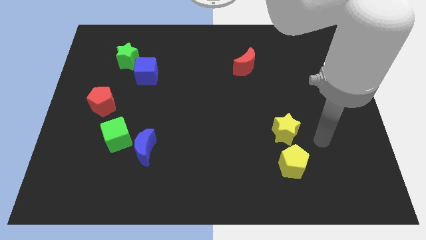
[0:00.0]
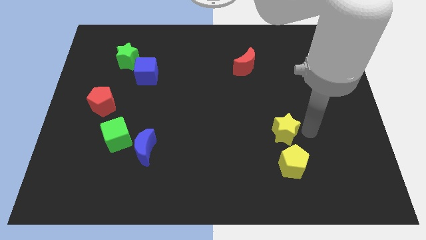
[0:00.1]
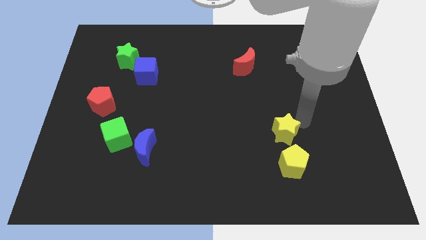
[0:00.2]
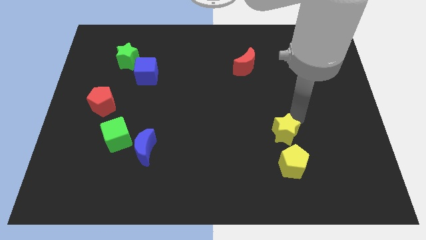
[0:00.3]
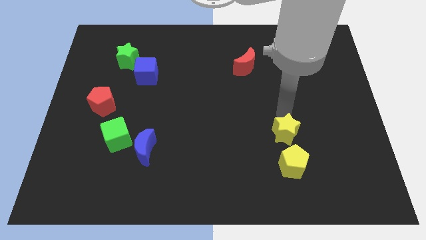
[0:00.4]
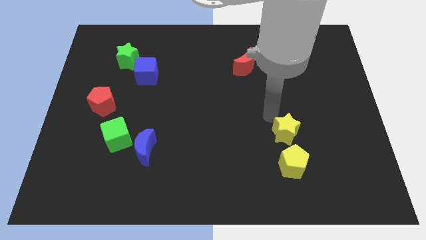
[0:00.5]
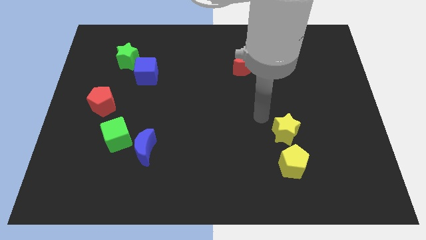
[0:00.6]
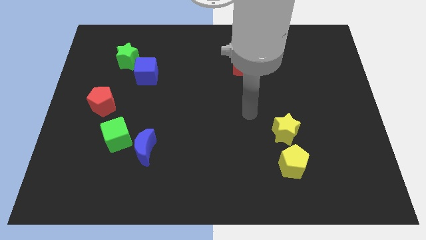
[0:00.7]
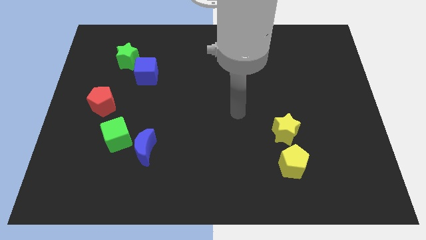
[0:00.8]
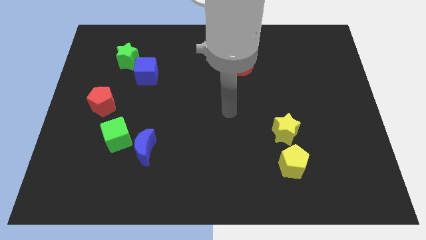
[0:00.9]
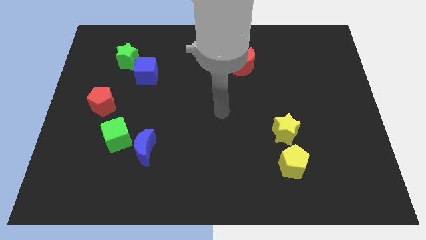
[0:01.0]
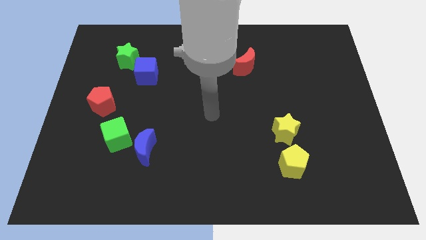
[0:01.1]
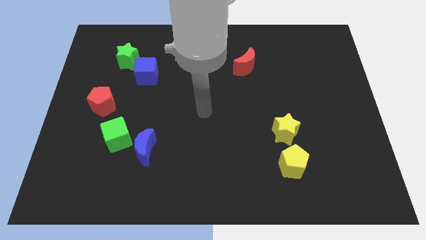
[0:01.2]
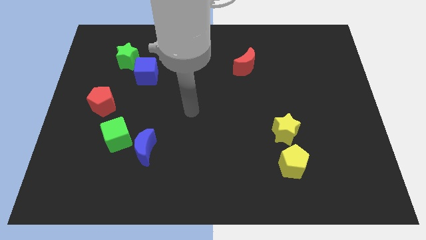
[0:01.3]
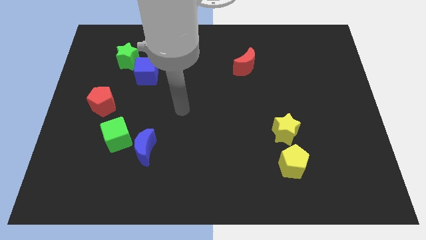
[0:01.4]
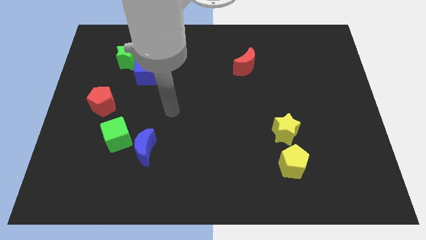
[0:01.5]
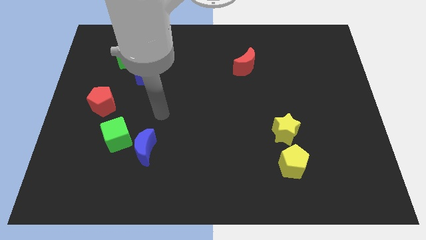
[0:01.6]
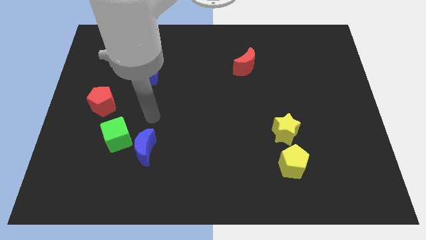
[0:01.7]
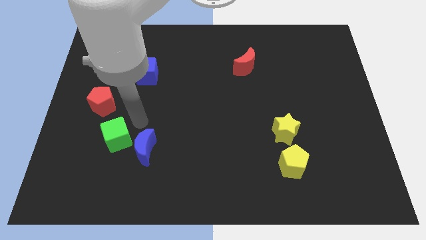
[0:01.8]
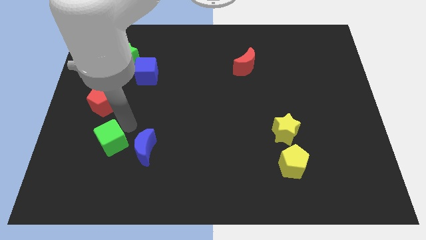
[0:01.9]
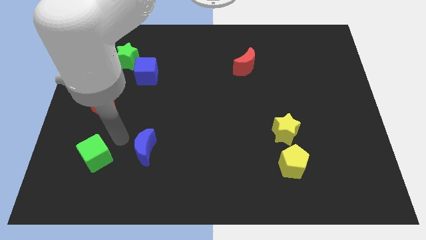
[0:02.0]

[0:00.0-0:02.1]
move the blue moon away from the green cube

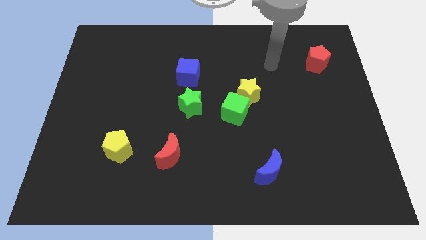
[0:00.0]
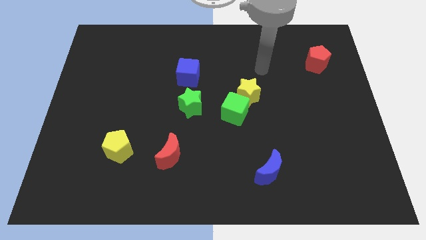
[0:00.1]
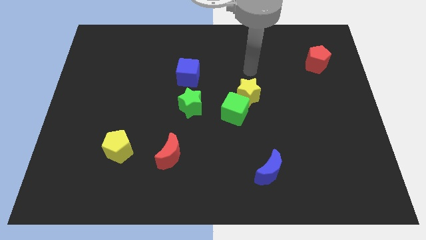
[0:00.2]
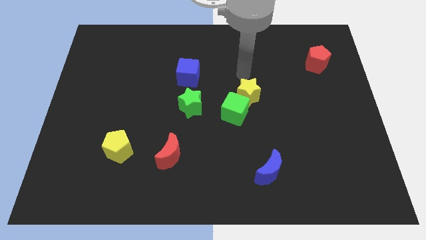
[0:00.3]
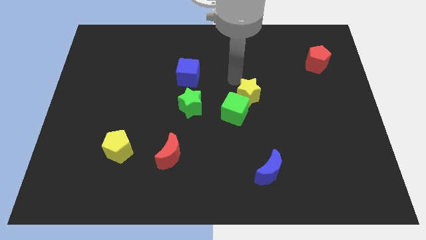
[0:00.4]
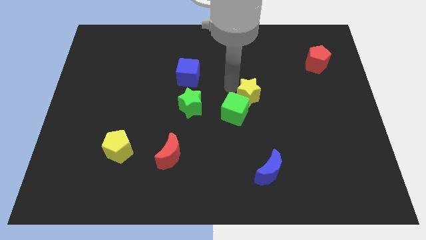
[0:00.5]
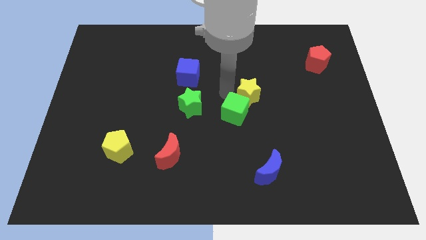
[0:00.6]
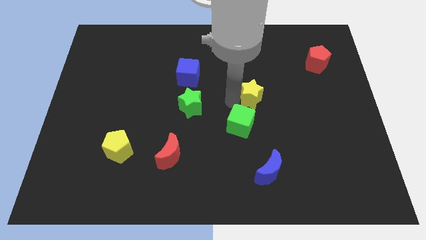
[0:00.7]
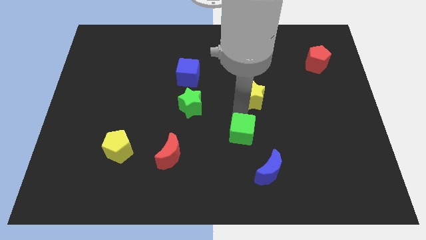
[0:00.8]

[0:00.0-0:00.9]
move the yellow star away from the green cube

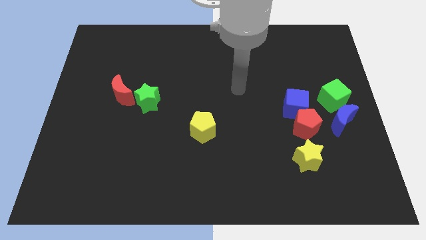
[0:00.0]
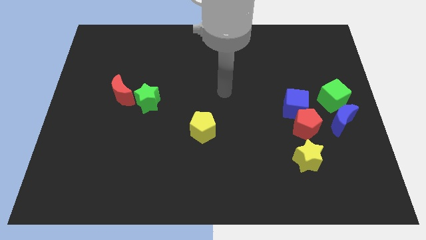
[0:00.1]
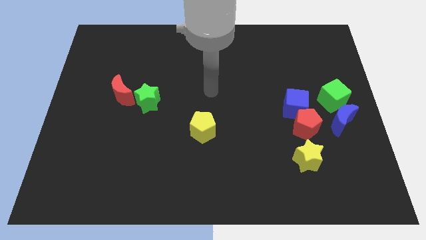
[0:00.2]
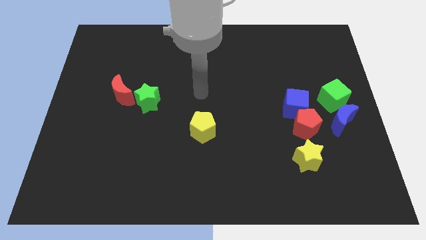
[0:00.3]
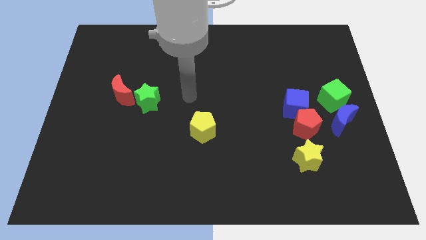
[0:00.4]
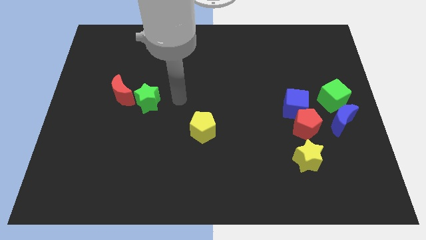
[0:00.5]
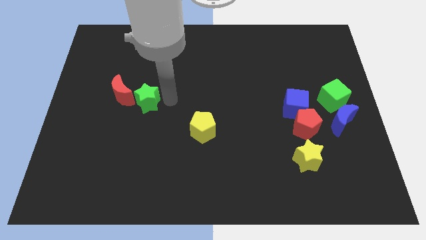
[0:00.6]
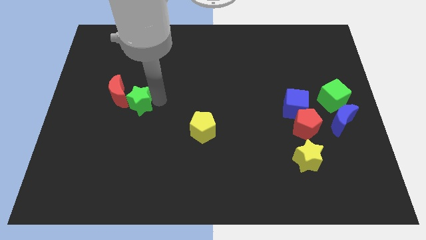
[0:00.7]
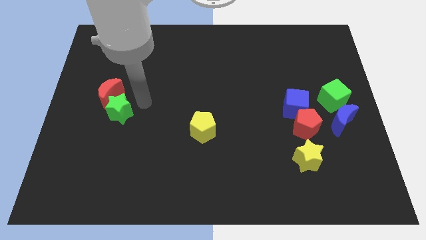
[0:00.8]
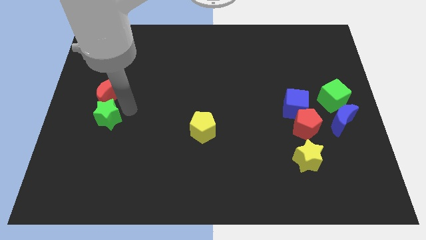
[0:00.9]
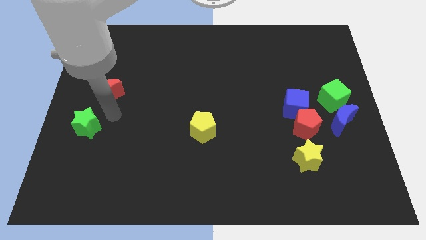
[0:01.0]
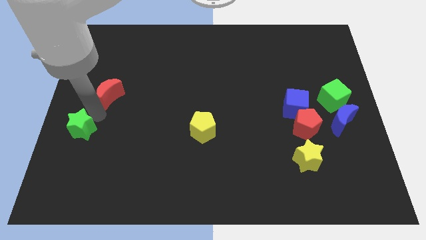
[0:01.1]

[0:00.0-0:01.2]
move the red moon away from the green star

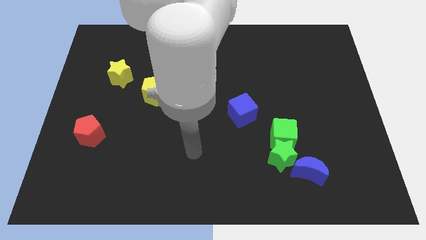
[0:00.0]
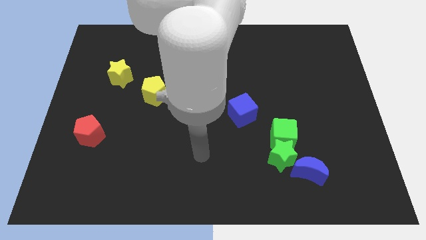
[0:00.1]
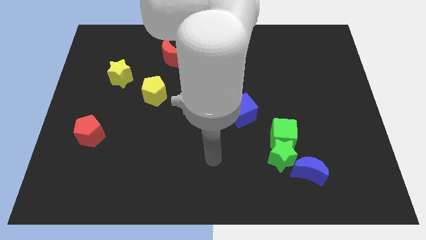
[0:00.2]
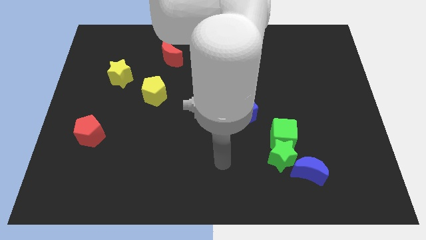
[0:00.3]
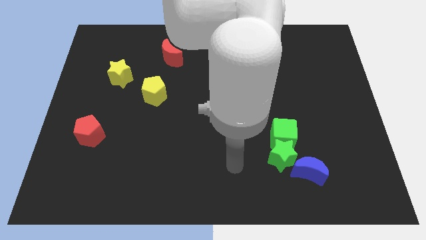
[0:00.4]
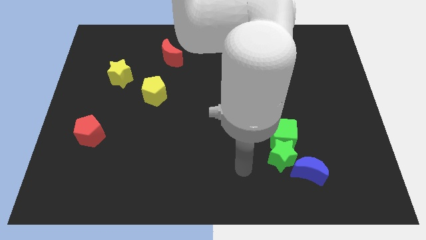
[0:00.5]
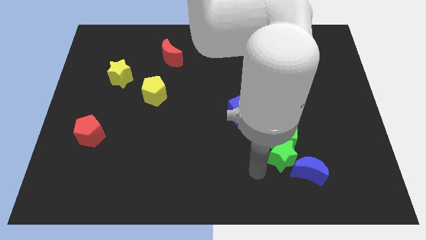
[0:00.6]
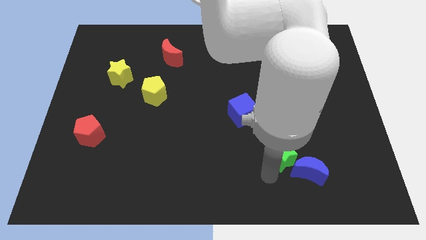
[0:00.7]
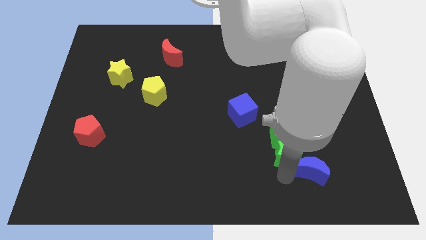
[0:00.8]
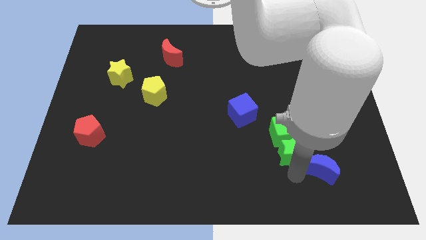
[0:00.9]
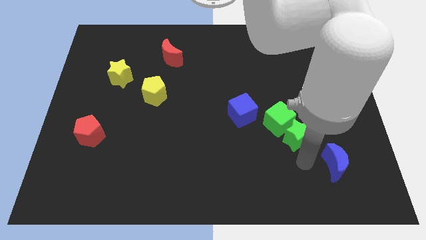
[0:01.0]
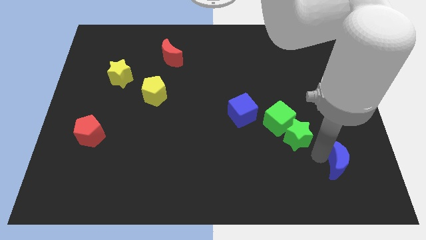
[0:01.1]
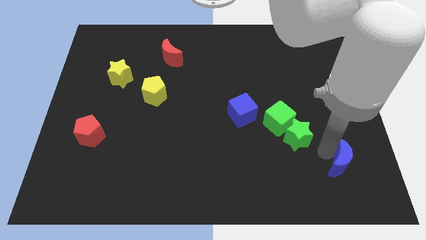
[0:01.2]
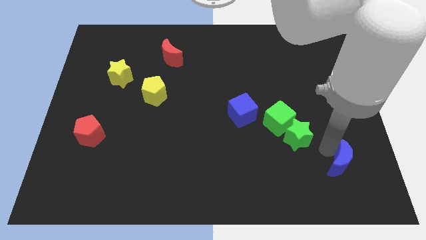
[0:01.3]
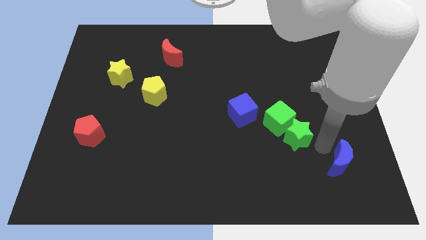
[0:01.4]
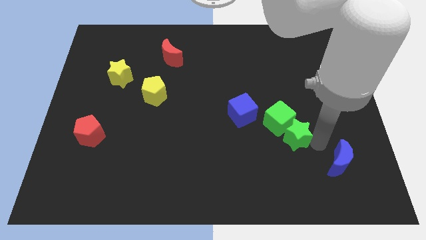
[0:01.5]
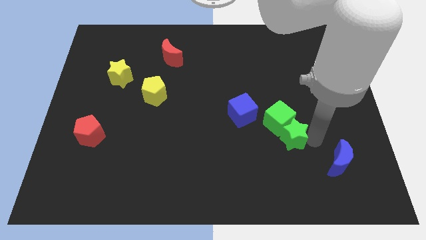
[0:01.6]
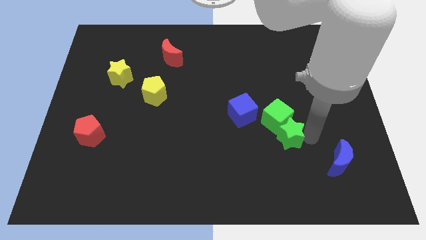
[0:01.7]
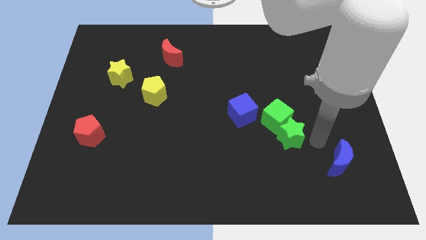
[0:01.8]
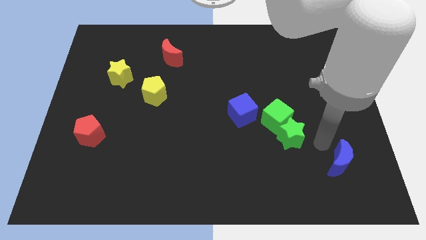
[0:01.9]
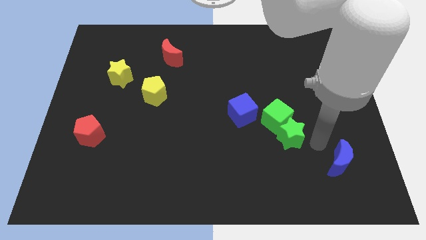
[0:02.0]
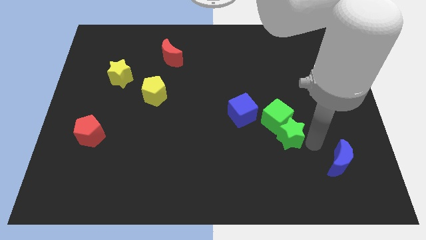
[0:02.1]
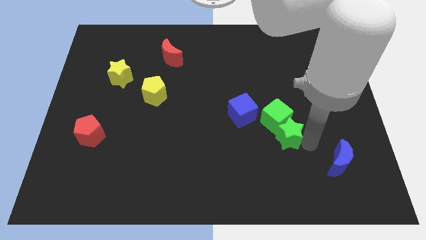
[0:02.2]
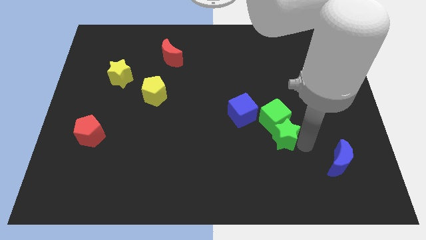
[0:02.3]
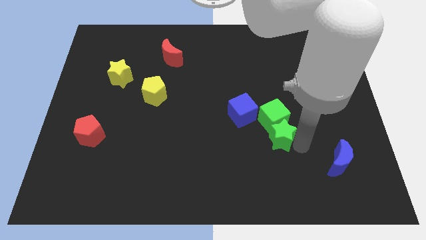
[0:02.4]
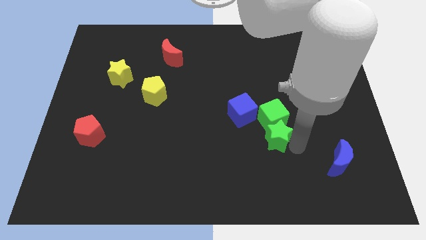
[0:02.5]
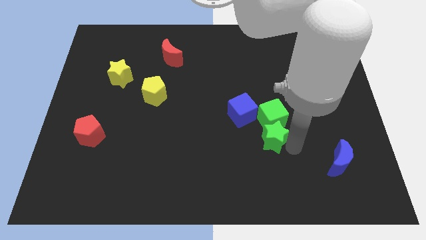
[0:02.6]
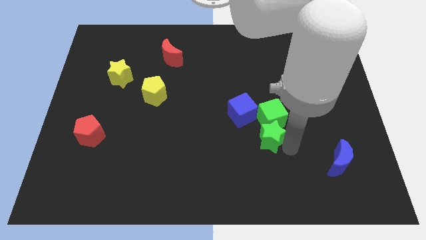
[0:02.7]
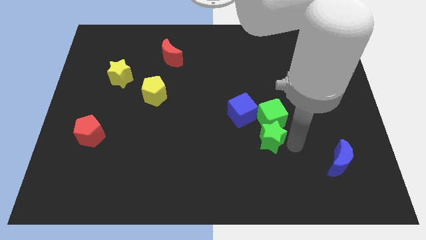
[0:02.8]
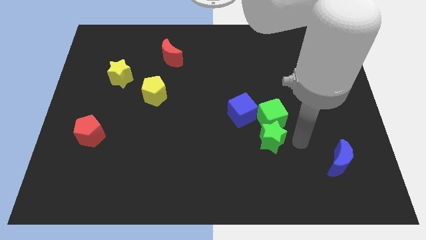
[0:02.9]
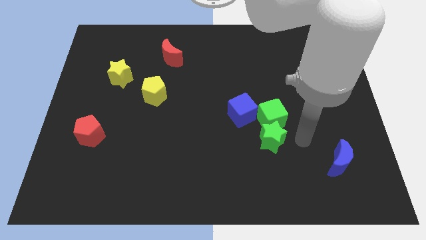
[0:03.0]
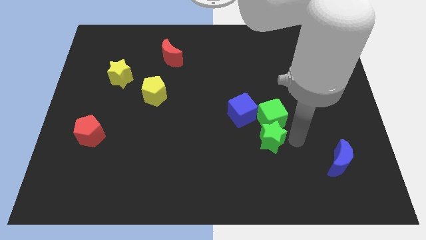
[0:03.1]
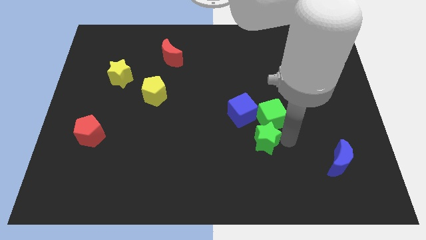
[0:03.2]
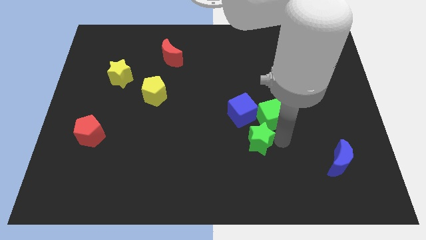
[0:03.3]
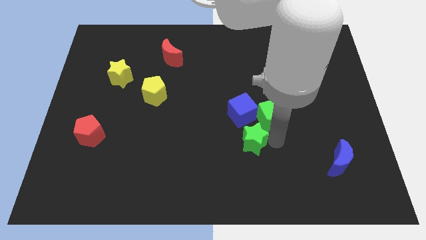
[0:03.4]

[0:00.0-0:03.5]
separate the green star from the green cube and blue moon

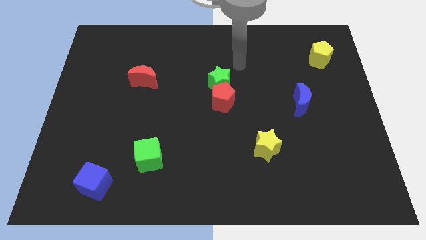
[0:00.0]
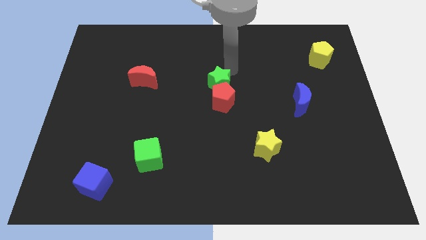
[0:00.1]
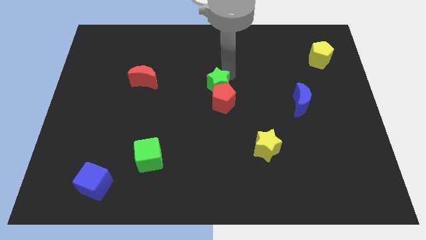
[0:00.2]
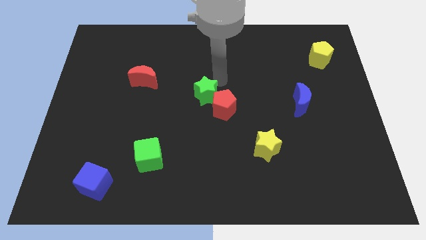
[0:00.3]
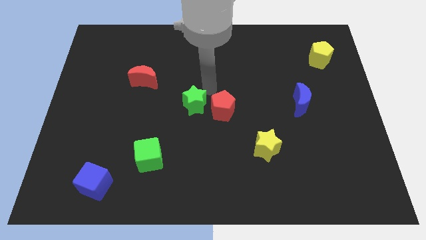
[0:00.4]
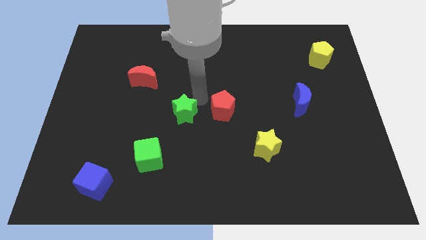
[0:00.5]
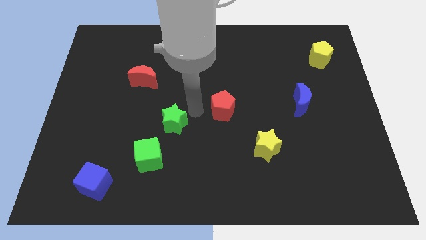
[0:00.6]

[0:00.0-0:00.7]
separate the red pentagon from the green star

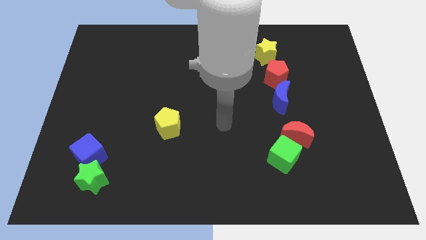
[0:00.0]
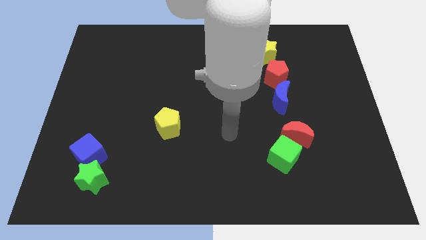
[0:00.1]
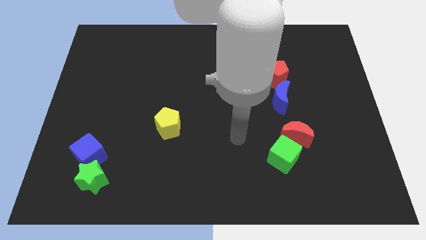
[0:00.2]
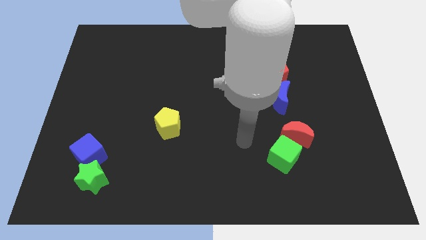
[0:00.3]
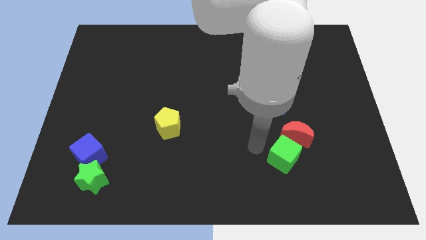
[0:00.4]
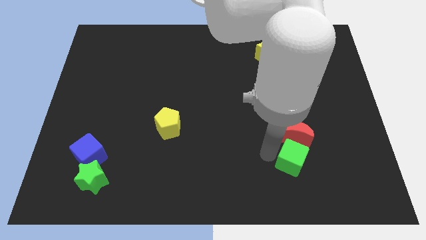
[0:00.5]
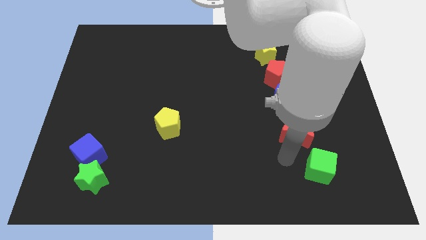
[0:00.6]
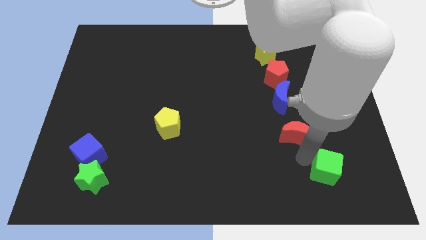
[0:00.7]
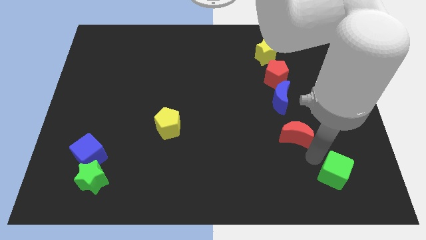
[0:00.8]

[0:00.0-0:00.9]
move the red moon away from the green cube
